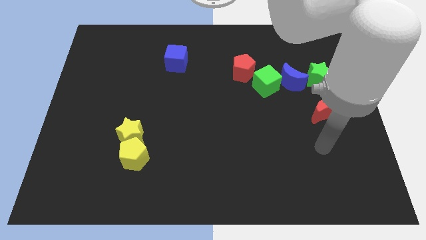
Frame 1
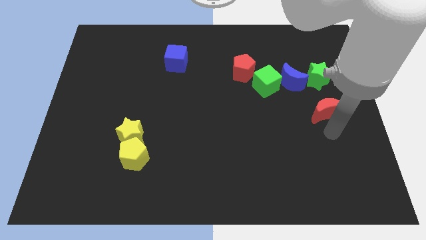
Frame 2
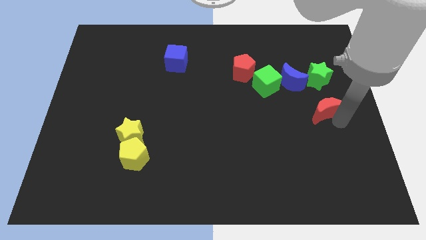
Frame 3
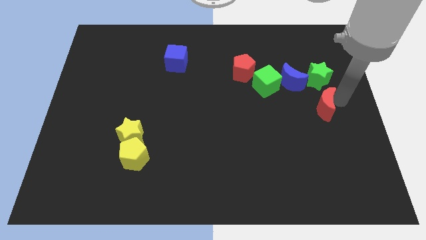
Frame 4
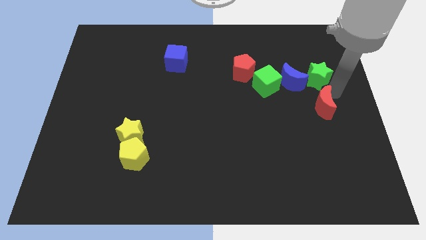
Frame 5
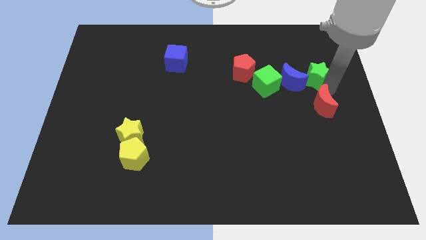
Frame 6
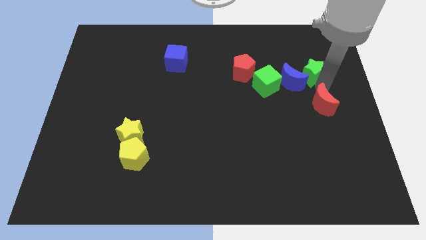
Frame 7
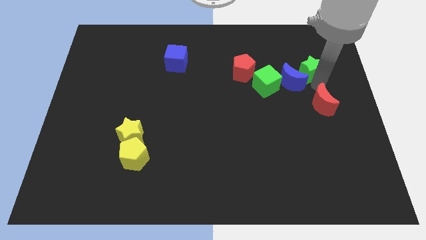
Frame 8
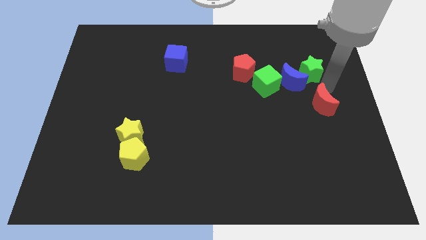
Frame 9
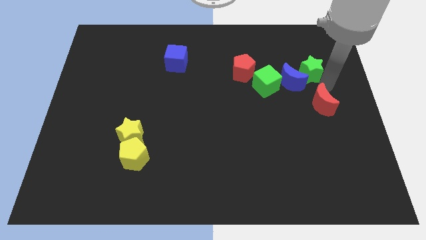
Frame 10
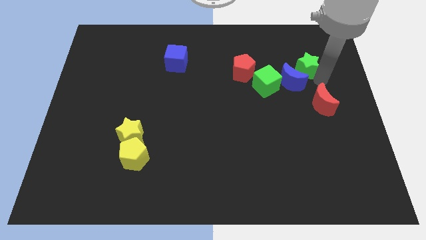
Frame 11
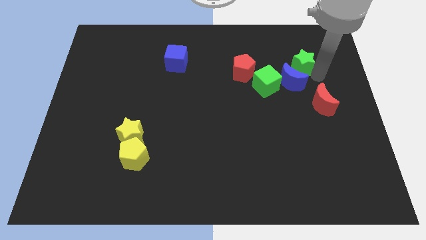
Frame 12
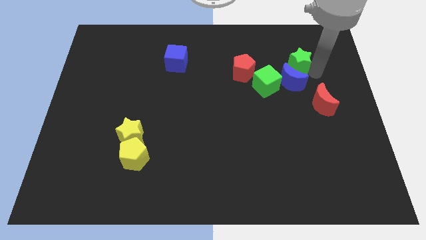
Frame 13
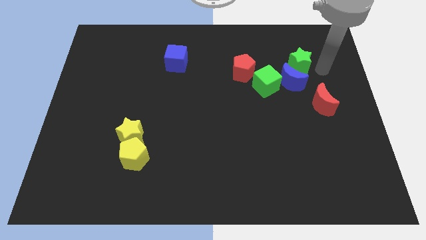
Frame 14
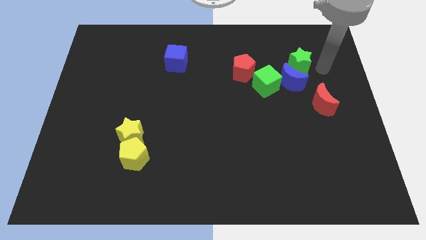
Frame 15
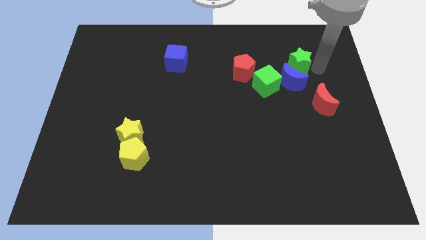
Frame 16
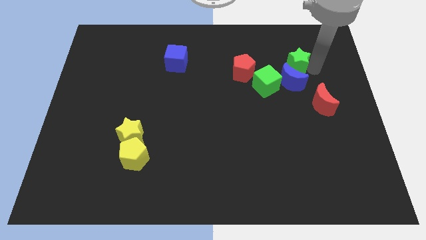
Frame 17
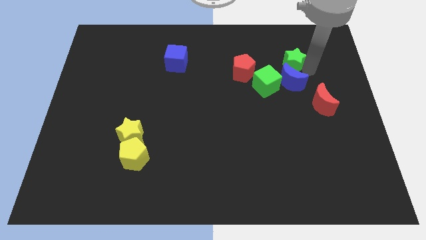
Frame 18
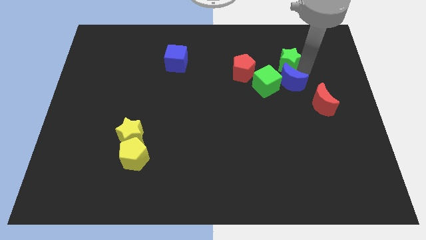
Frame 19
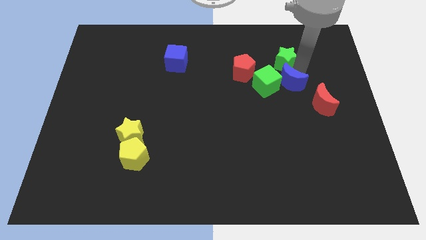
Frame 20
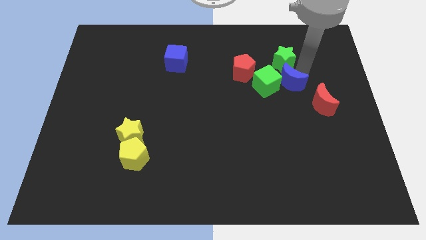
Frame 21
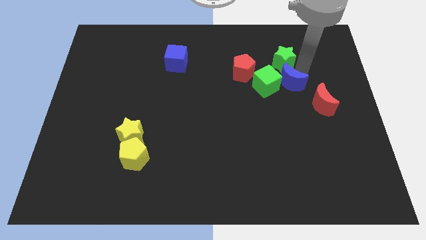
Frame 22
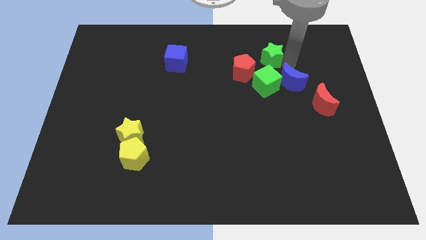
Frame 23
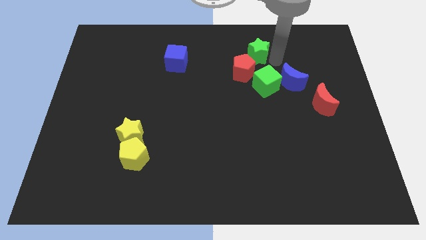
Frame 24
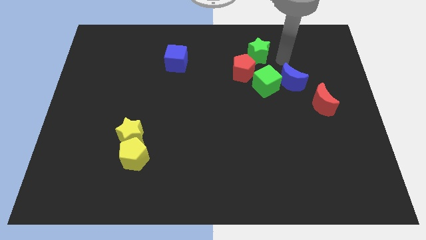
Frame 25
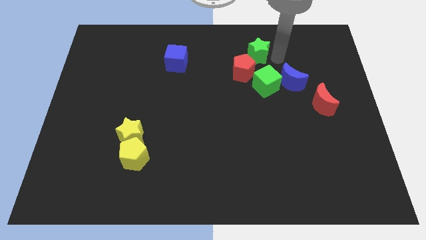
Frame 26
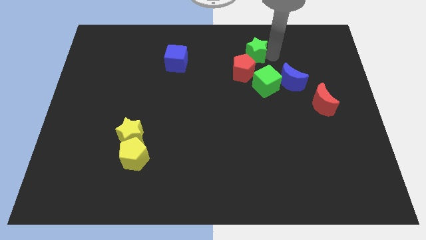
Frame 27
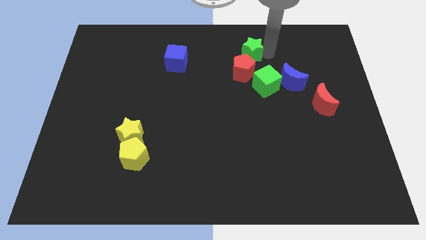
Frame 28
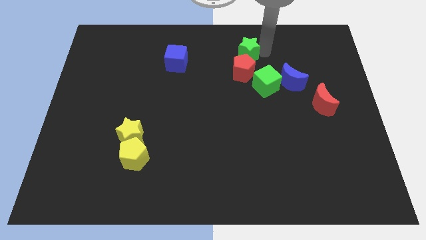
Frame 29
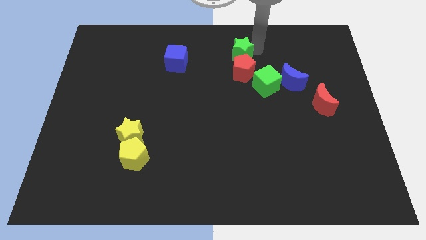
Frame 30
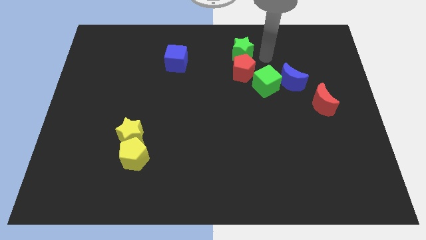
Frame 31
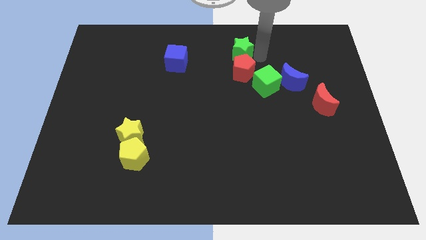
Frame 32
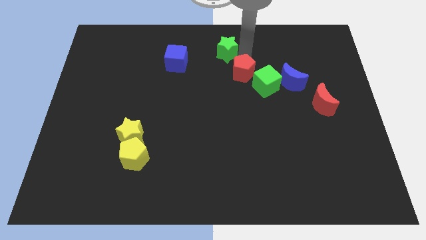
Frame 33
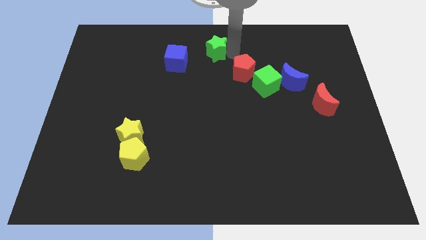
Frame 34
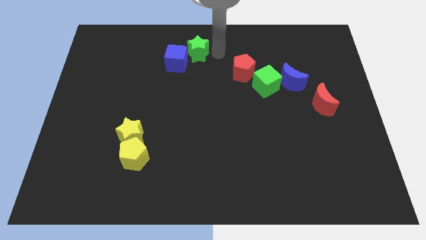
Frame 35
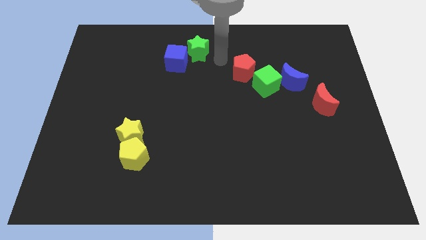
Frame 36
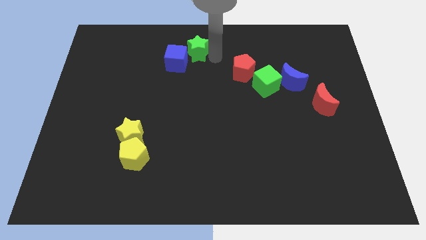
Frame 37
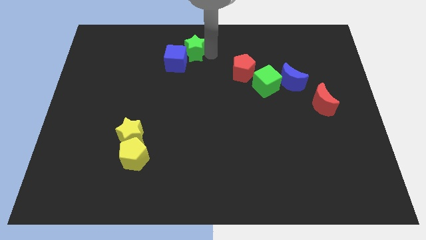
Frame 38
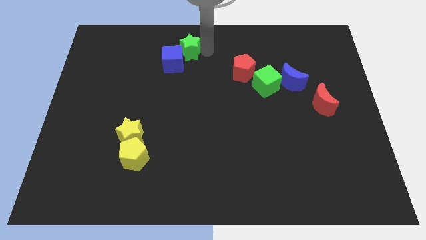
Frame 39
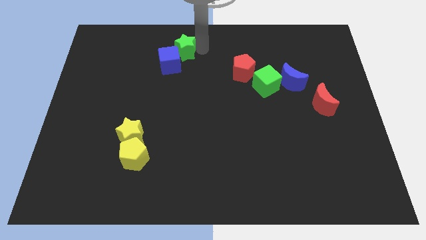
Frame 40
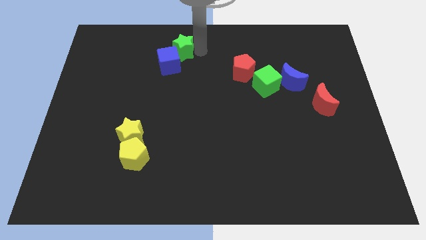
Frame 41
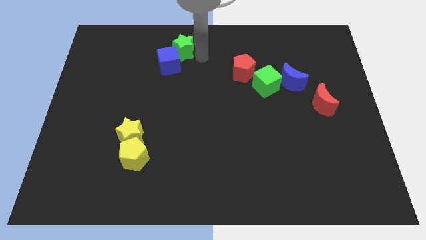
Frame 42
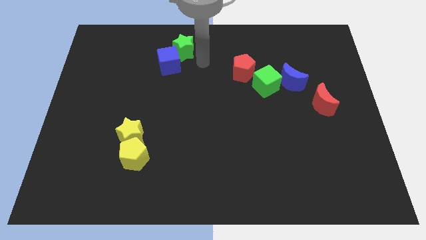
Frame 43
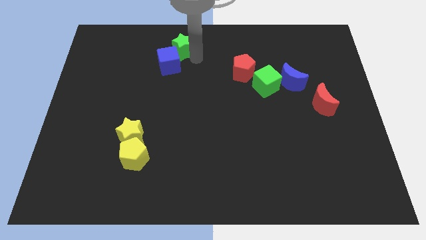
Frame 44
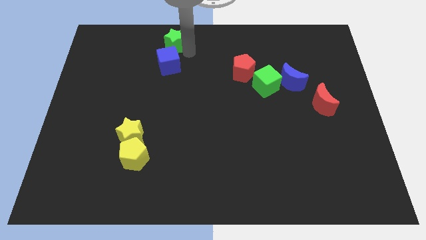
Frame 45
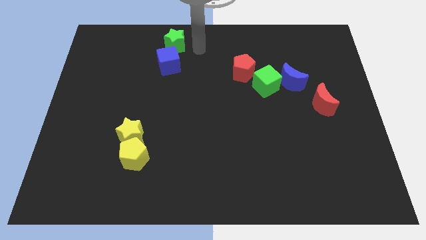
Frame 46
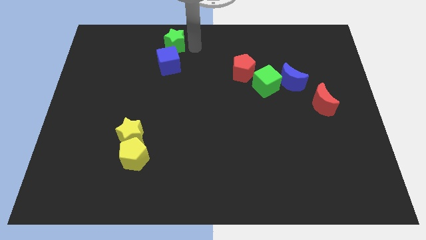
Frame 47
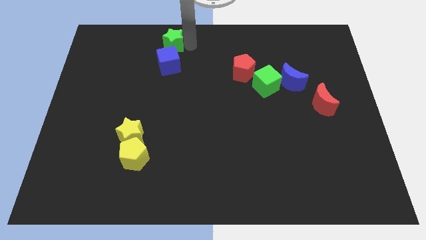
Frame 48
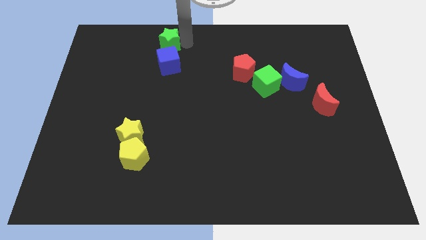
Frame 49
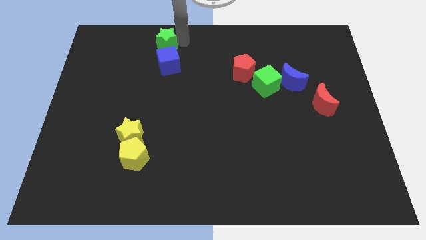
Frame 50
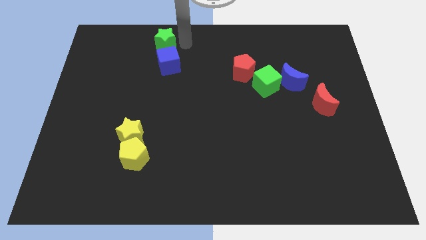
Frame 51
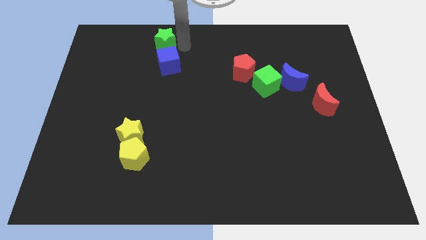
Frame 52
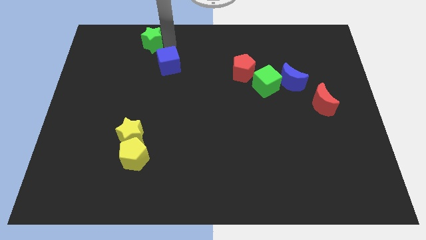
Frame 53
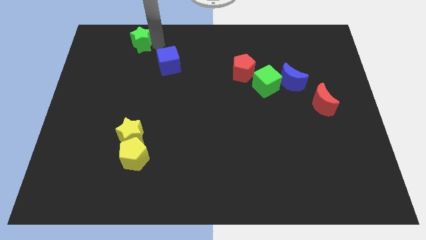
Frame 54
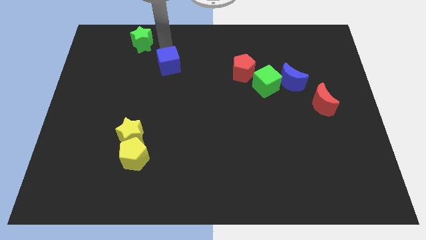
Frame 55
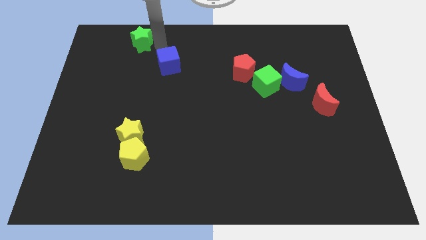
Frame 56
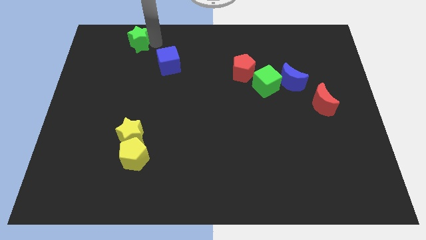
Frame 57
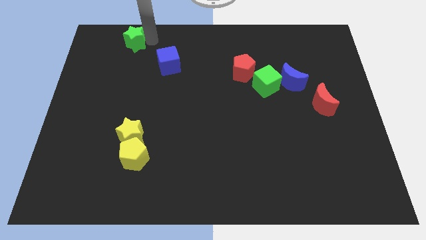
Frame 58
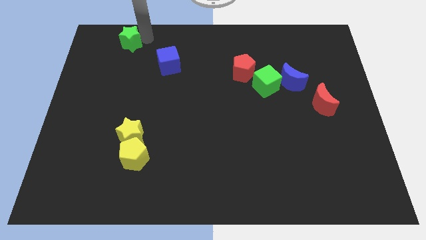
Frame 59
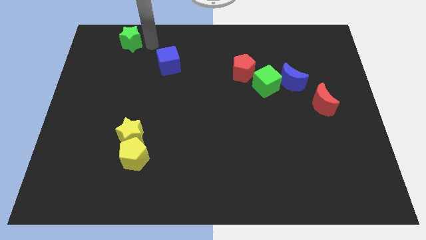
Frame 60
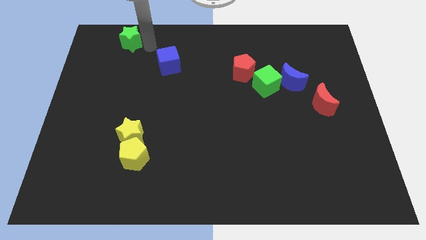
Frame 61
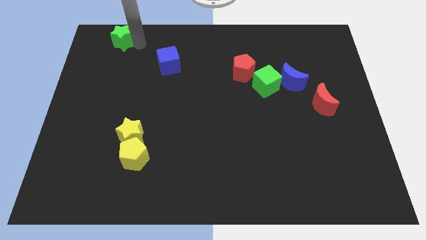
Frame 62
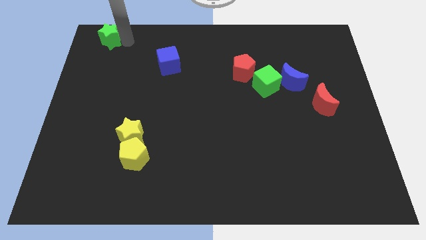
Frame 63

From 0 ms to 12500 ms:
slide the green star to the top left corner
